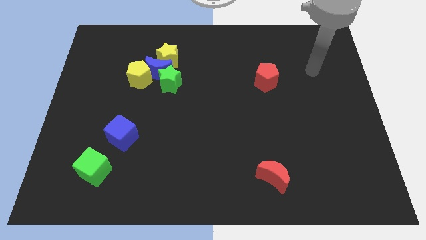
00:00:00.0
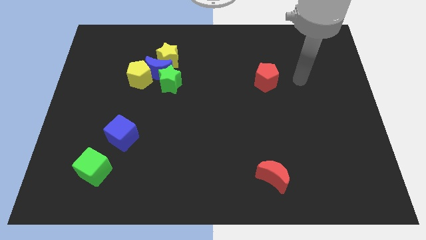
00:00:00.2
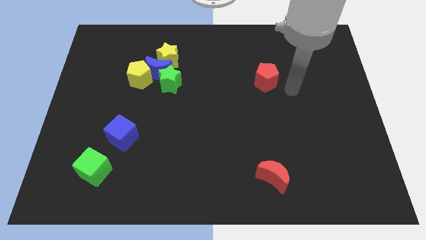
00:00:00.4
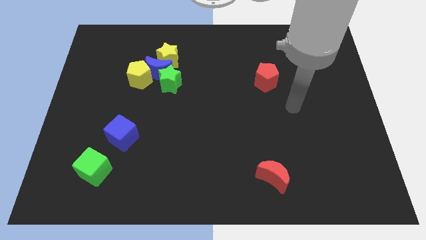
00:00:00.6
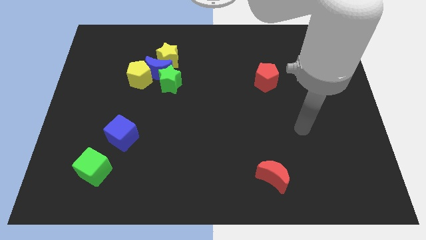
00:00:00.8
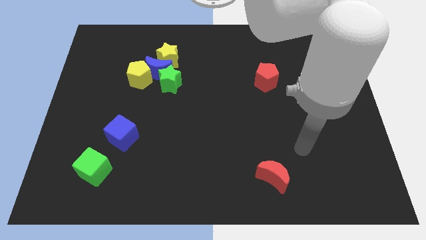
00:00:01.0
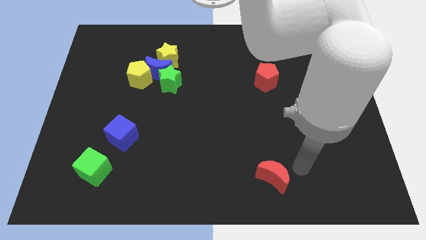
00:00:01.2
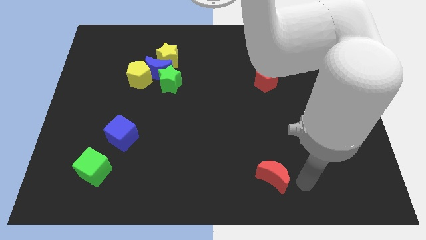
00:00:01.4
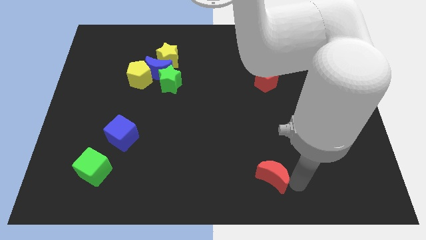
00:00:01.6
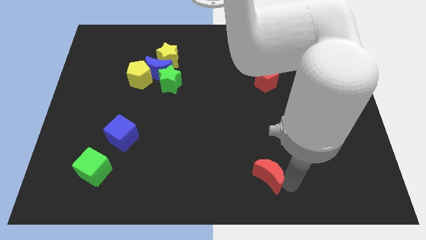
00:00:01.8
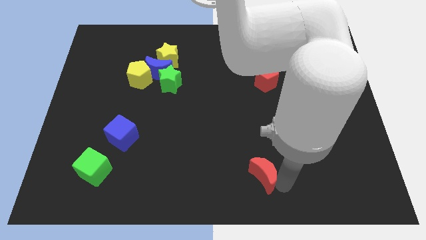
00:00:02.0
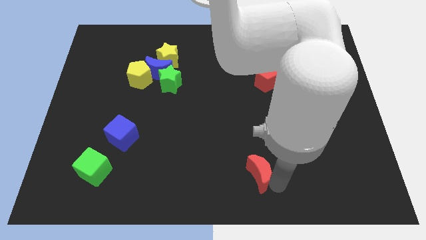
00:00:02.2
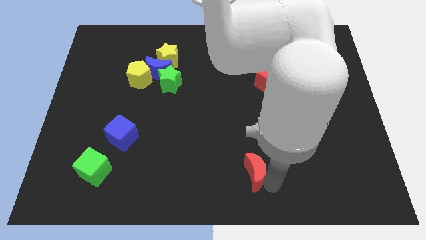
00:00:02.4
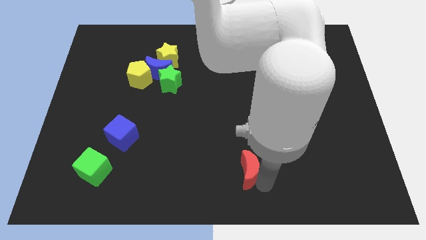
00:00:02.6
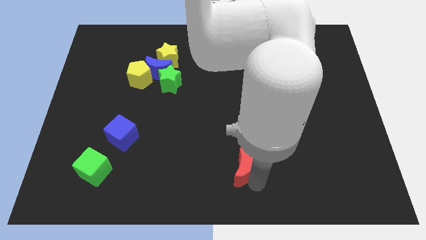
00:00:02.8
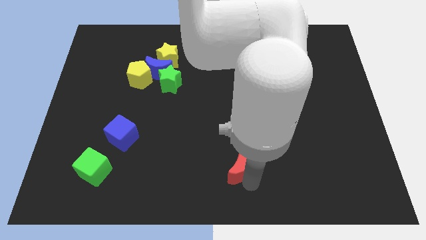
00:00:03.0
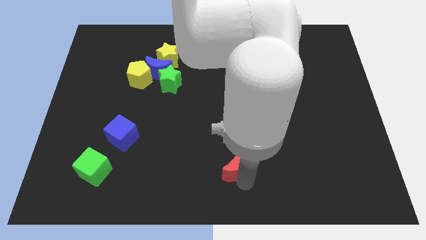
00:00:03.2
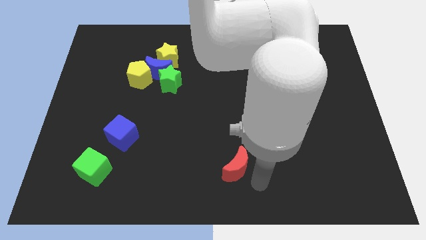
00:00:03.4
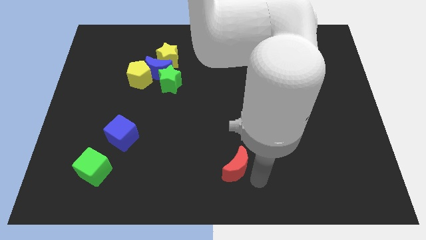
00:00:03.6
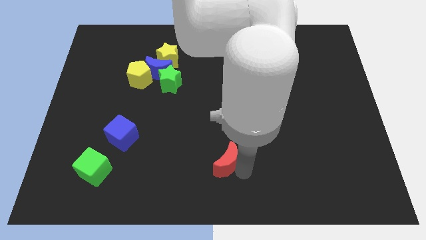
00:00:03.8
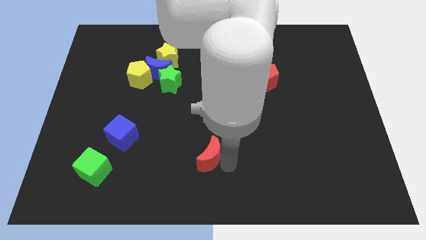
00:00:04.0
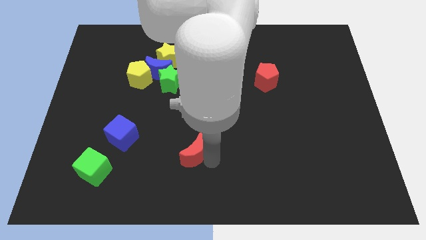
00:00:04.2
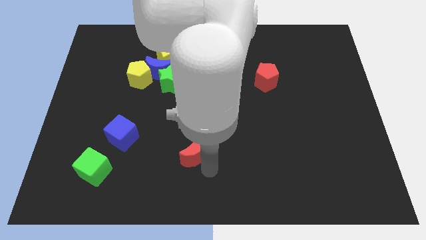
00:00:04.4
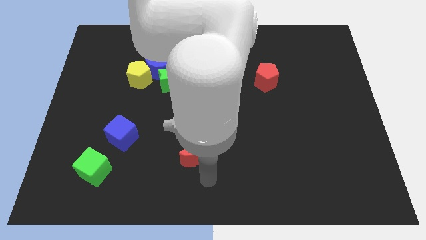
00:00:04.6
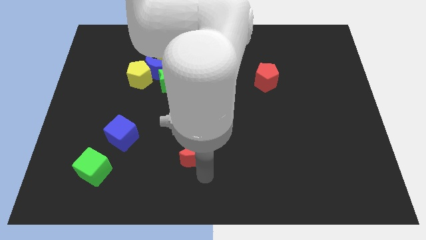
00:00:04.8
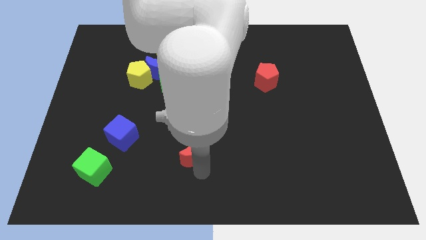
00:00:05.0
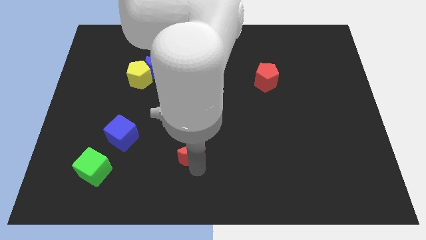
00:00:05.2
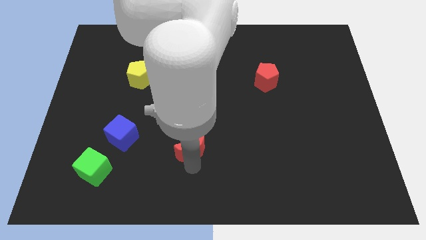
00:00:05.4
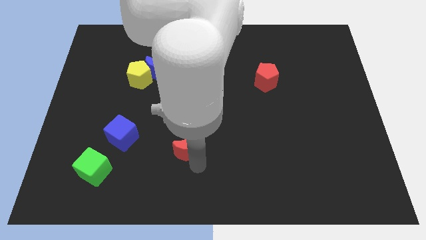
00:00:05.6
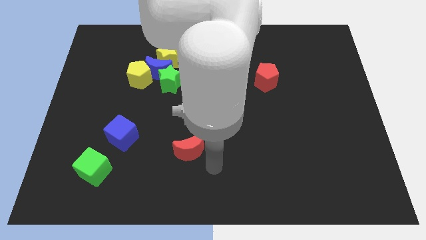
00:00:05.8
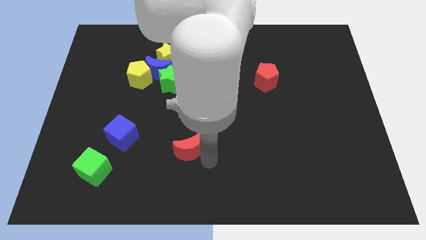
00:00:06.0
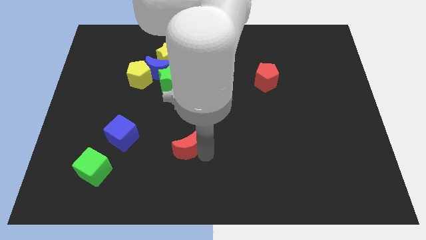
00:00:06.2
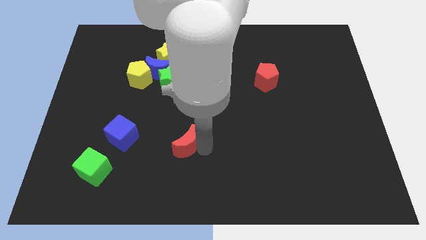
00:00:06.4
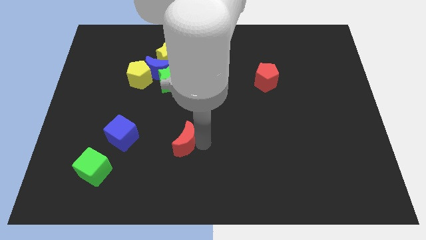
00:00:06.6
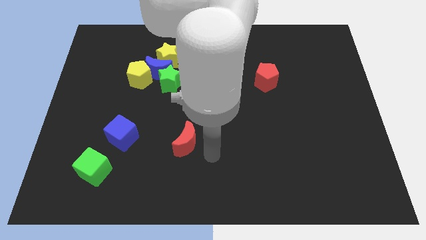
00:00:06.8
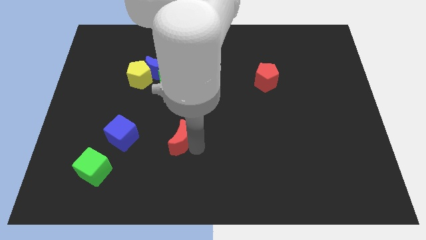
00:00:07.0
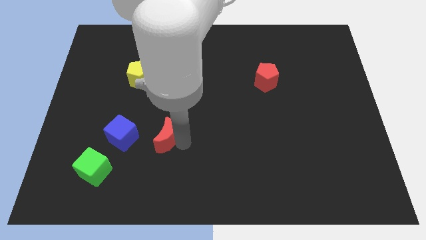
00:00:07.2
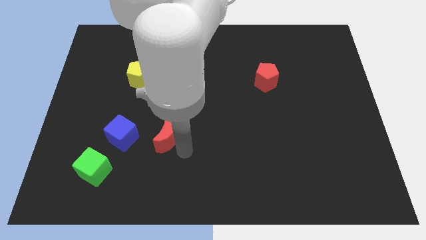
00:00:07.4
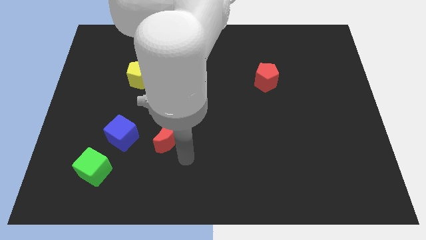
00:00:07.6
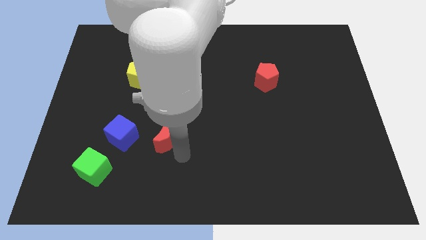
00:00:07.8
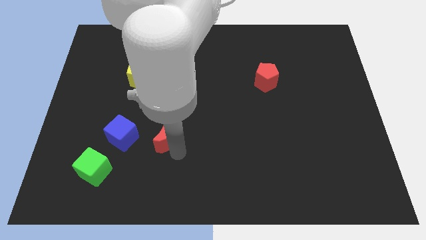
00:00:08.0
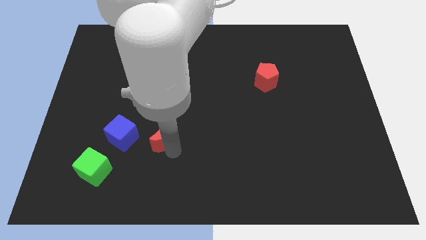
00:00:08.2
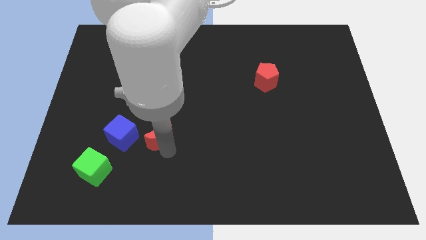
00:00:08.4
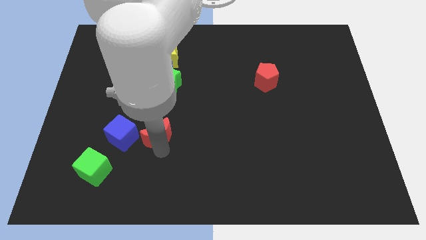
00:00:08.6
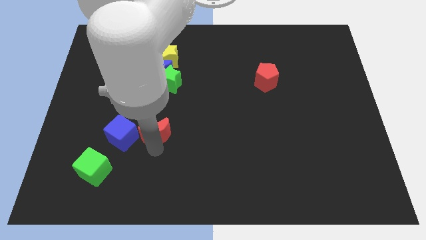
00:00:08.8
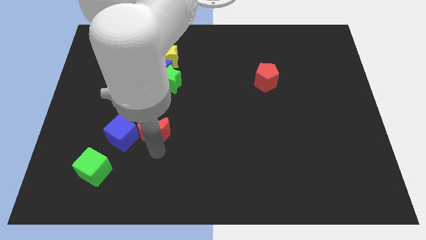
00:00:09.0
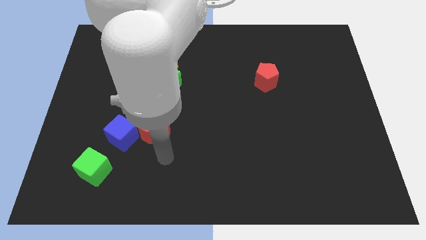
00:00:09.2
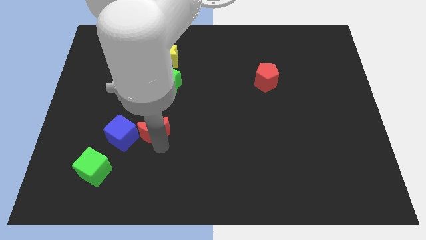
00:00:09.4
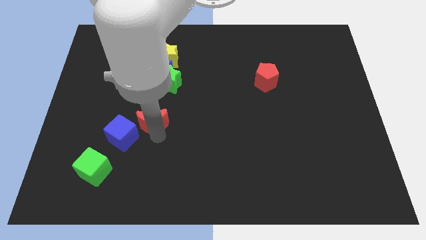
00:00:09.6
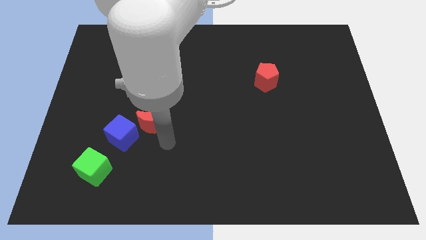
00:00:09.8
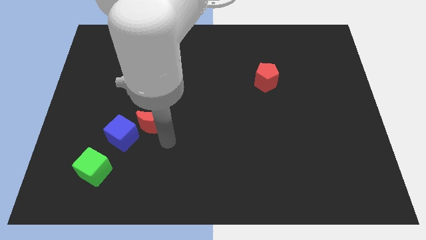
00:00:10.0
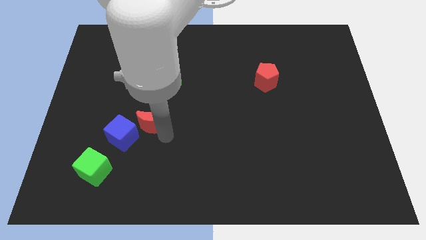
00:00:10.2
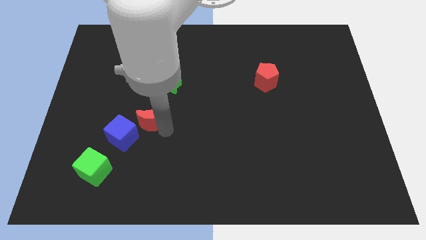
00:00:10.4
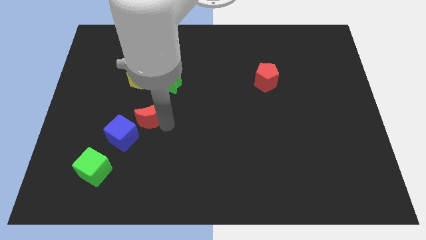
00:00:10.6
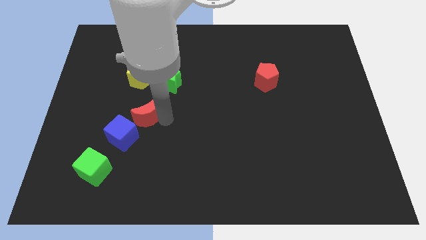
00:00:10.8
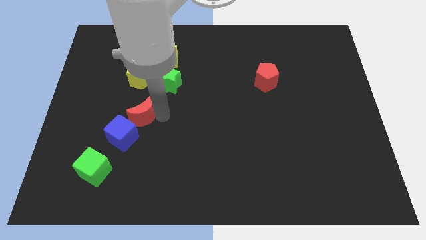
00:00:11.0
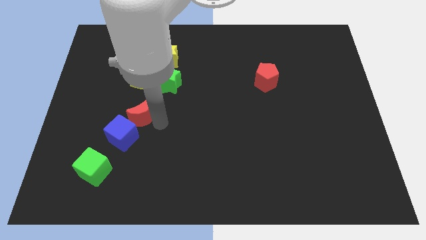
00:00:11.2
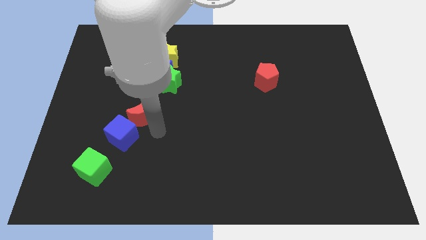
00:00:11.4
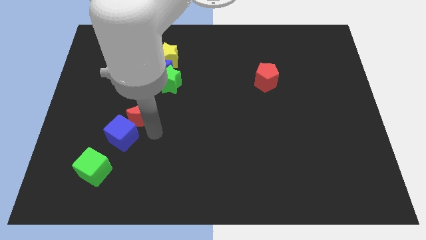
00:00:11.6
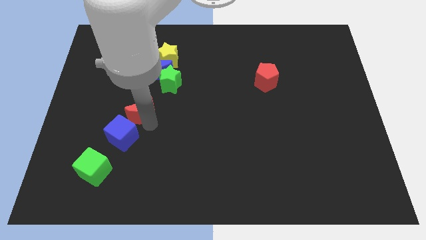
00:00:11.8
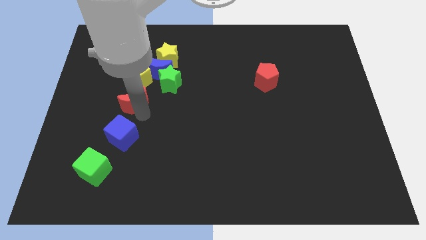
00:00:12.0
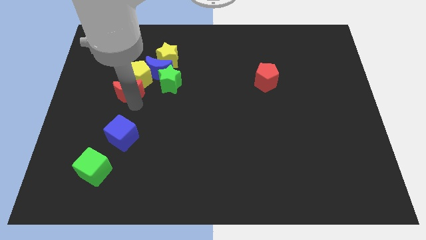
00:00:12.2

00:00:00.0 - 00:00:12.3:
put the red moon to the left side of the green star

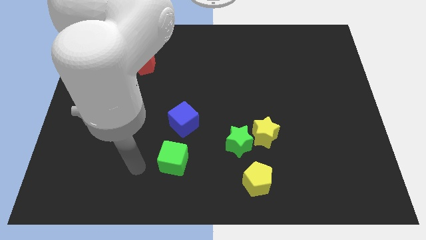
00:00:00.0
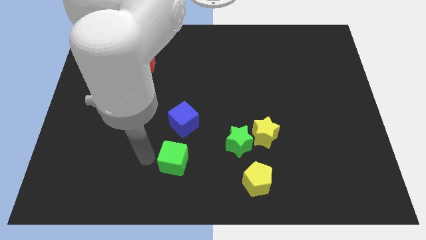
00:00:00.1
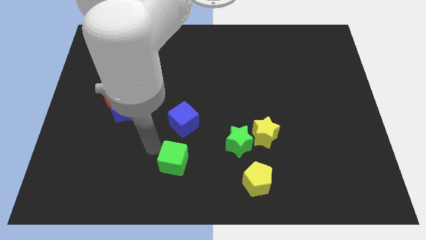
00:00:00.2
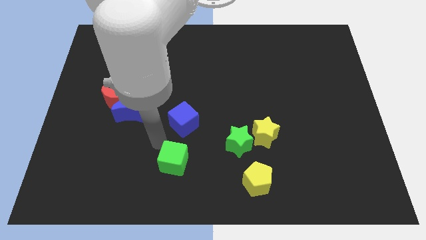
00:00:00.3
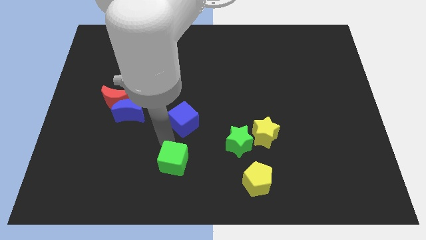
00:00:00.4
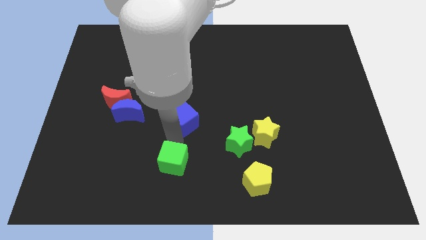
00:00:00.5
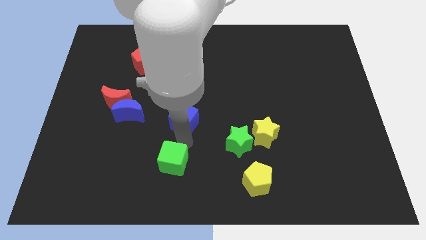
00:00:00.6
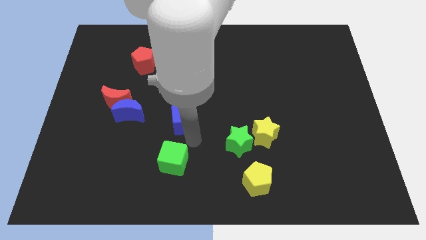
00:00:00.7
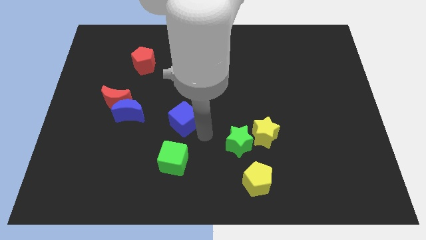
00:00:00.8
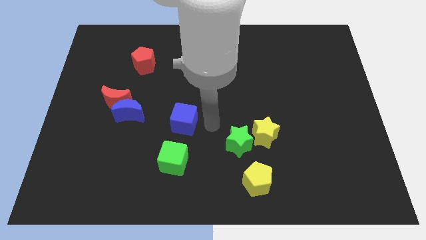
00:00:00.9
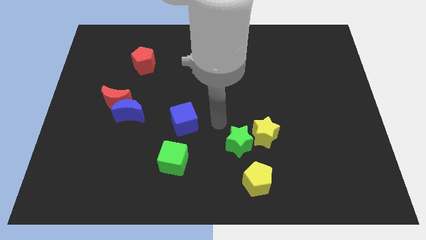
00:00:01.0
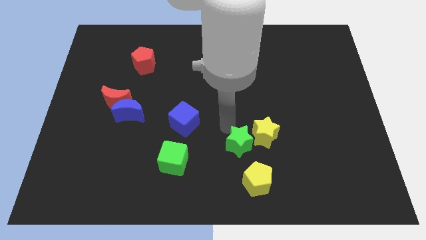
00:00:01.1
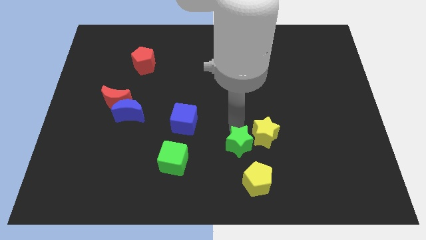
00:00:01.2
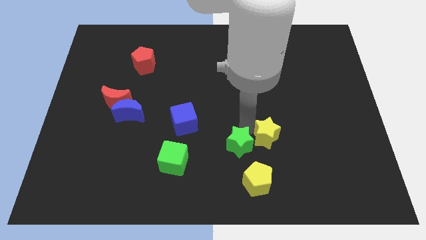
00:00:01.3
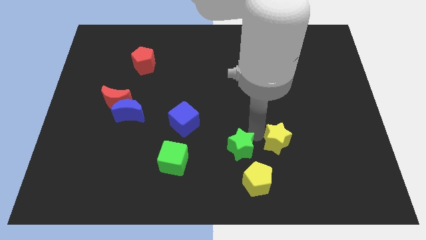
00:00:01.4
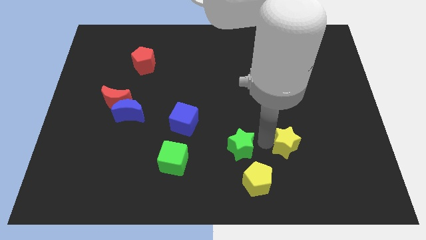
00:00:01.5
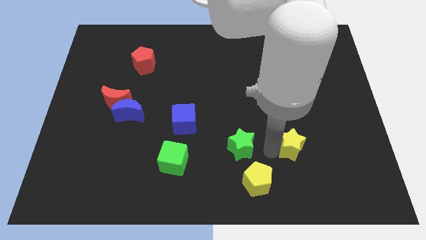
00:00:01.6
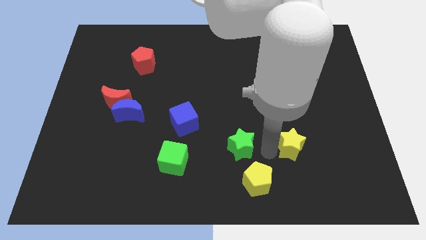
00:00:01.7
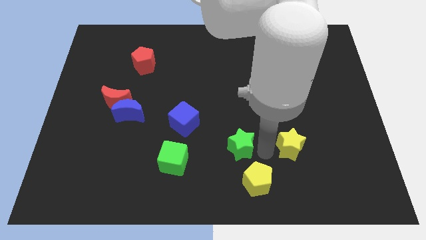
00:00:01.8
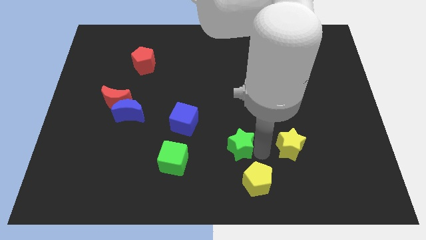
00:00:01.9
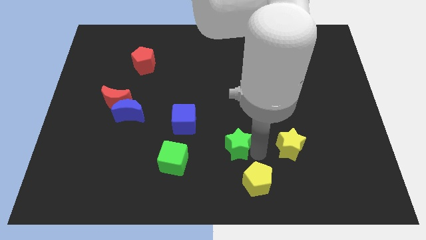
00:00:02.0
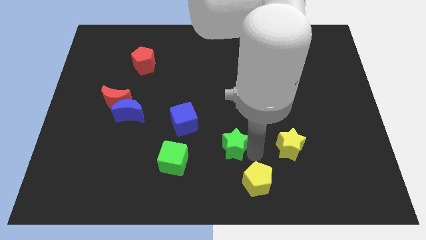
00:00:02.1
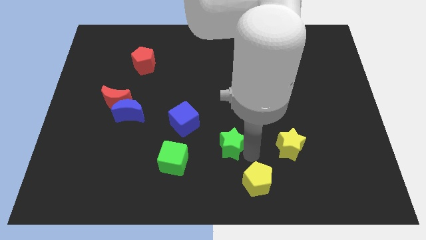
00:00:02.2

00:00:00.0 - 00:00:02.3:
move the green star to the bottom right side of the blue cube
